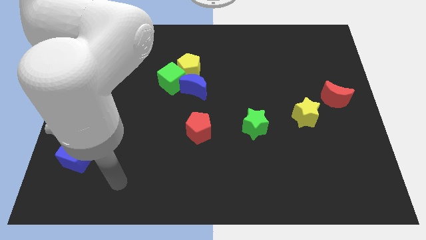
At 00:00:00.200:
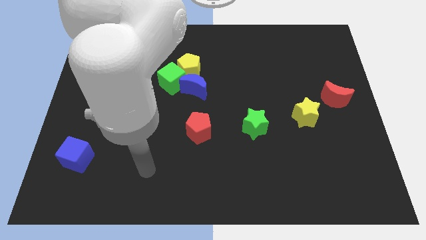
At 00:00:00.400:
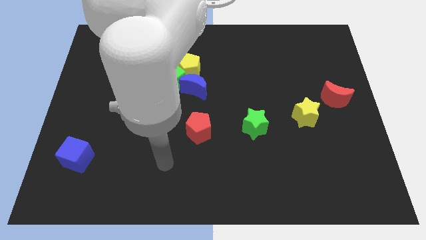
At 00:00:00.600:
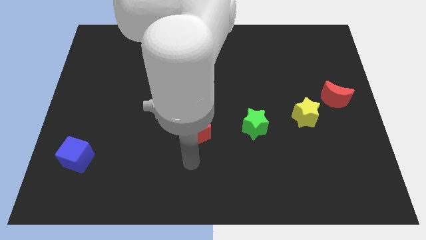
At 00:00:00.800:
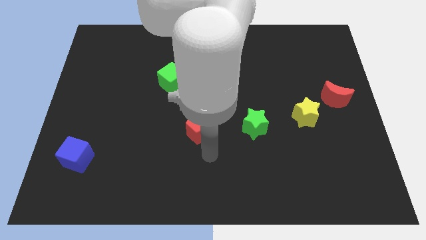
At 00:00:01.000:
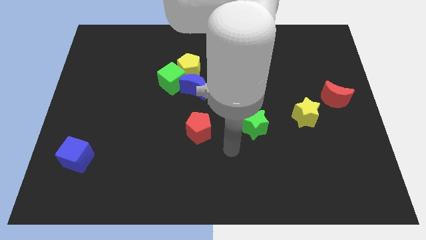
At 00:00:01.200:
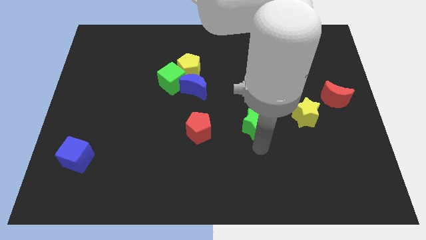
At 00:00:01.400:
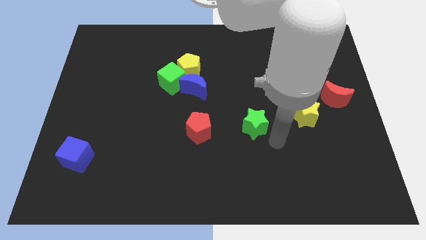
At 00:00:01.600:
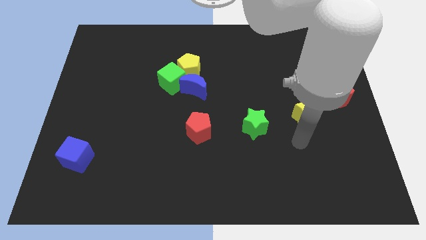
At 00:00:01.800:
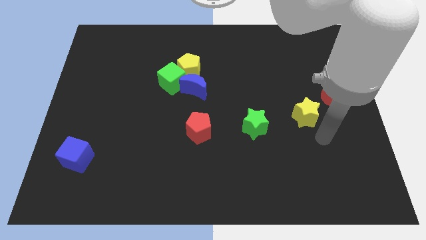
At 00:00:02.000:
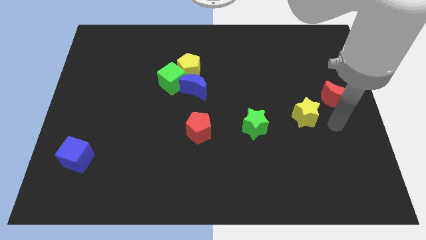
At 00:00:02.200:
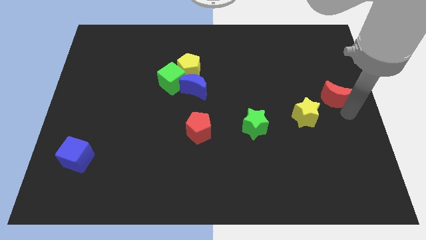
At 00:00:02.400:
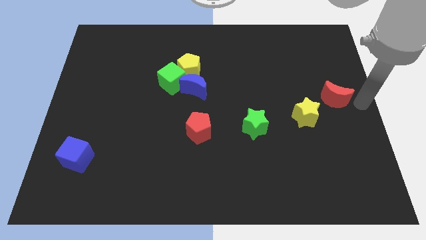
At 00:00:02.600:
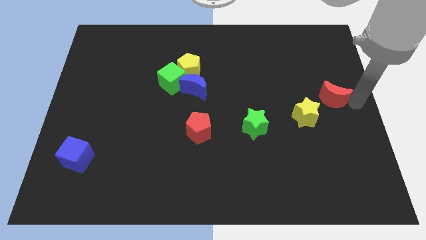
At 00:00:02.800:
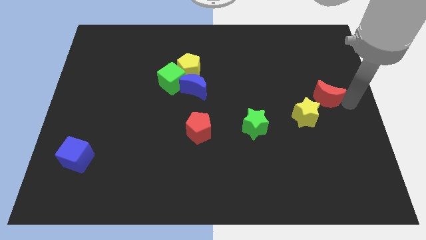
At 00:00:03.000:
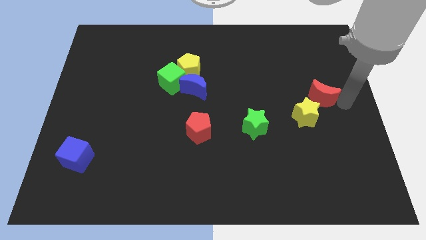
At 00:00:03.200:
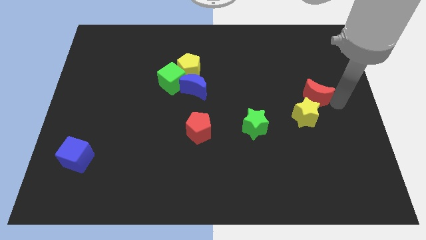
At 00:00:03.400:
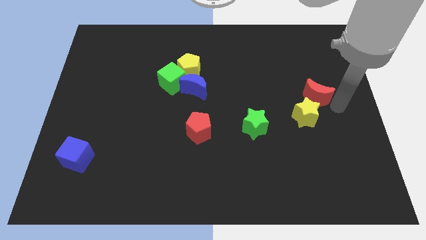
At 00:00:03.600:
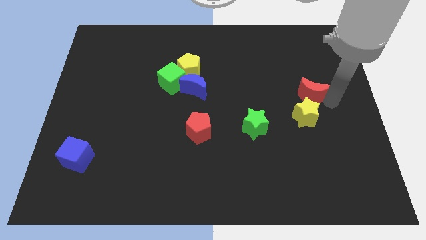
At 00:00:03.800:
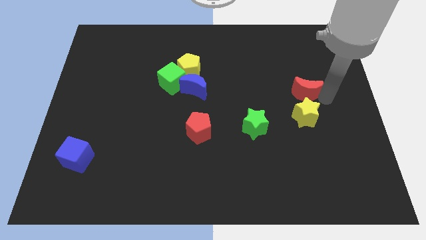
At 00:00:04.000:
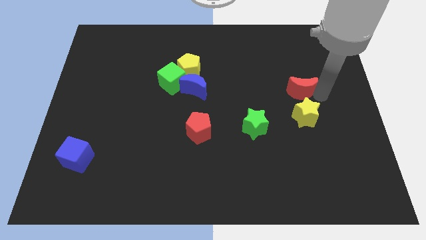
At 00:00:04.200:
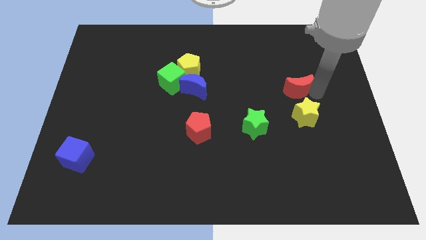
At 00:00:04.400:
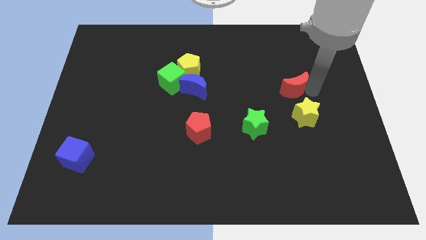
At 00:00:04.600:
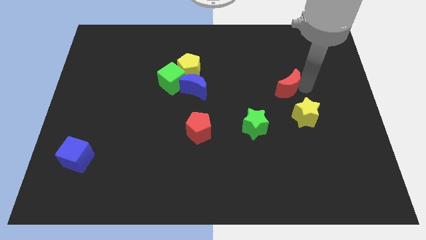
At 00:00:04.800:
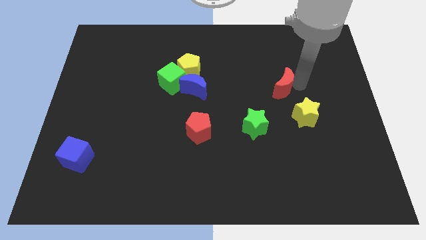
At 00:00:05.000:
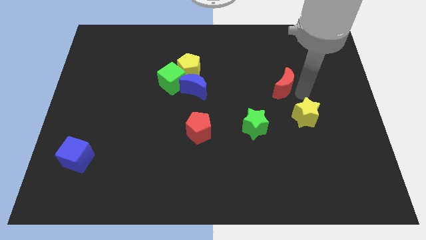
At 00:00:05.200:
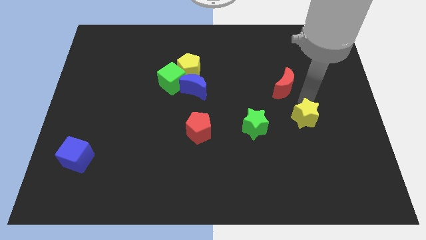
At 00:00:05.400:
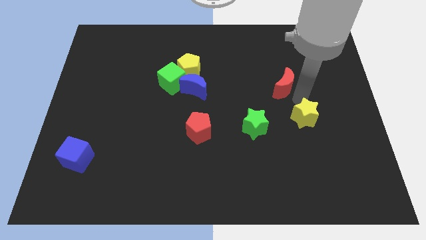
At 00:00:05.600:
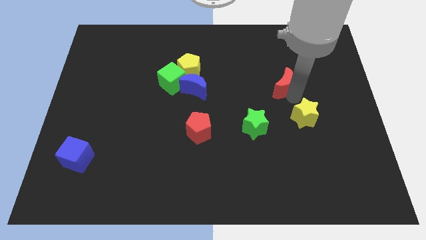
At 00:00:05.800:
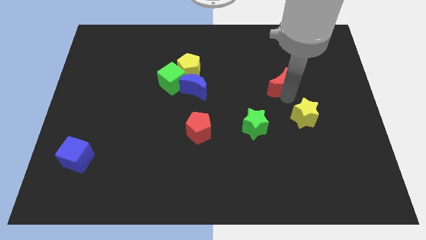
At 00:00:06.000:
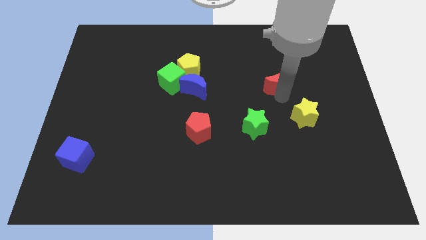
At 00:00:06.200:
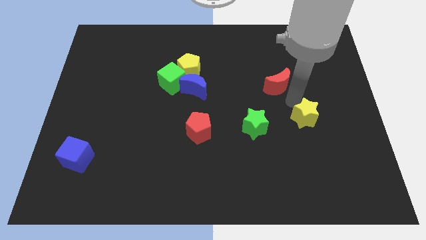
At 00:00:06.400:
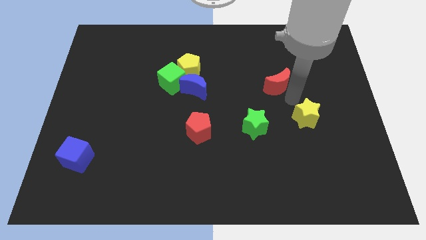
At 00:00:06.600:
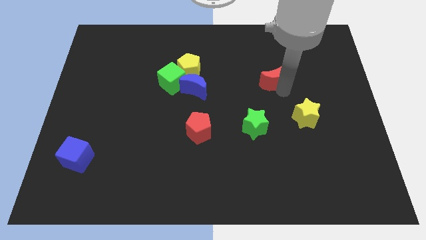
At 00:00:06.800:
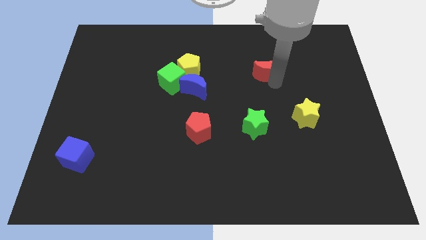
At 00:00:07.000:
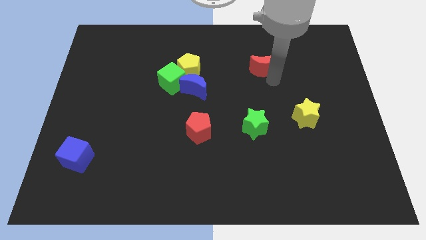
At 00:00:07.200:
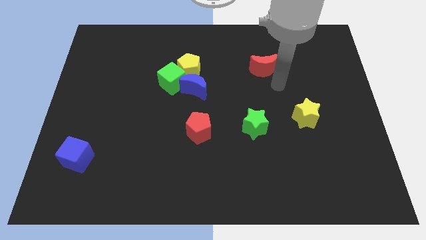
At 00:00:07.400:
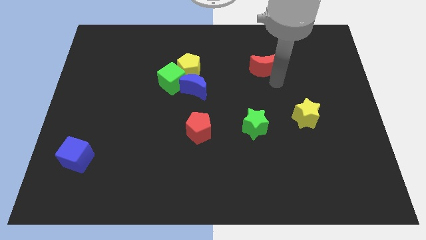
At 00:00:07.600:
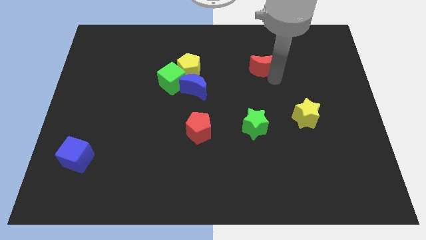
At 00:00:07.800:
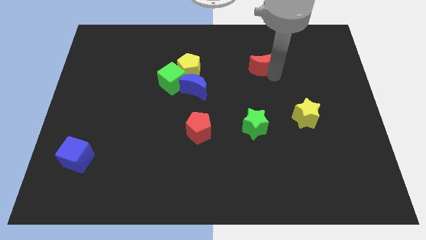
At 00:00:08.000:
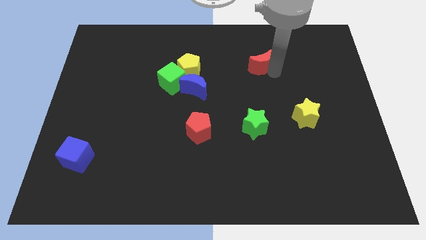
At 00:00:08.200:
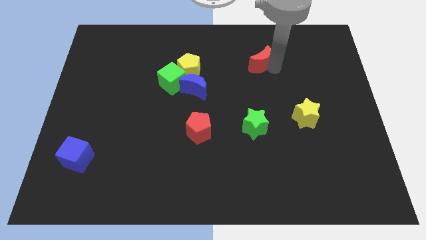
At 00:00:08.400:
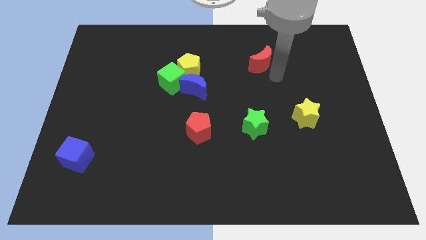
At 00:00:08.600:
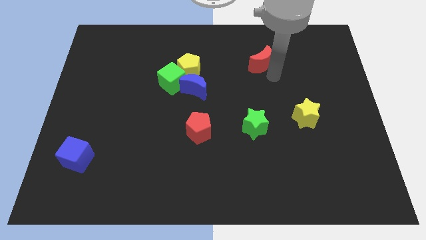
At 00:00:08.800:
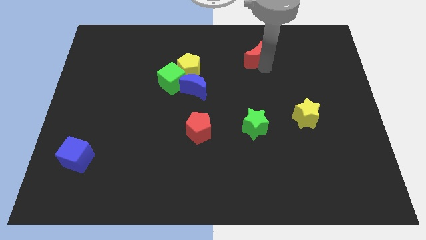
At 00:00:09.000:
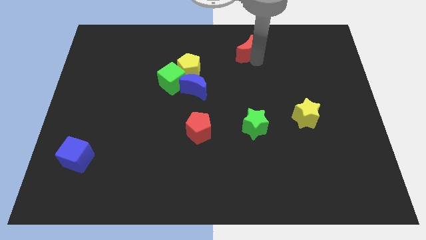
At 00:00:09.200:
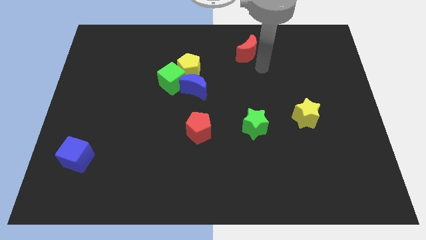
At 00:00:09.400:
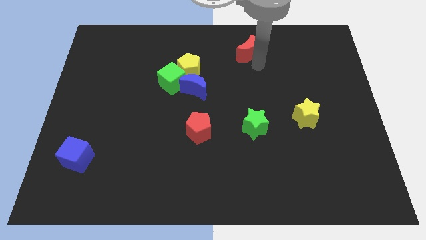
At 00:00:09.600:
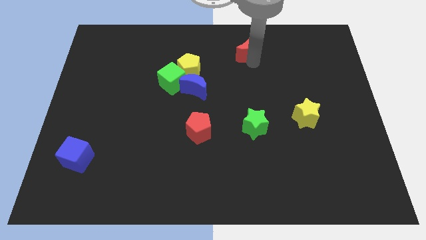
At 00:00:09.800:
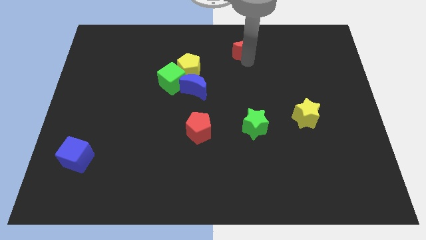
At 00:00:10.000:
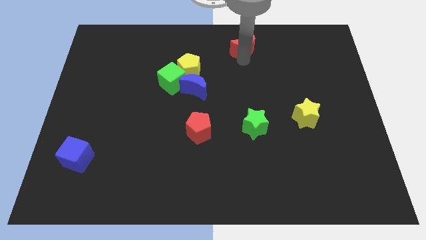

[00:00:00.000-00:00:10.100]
slide the red moon to the top

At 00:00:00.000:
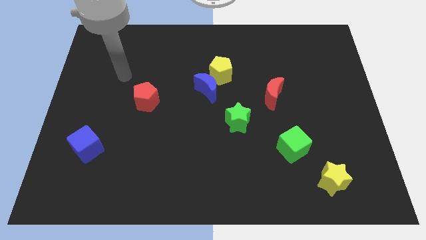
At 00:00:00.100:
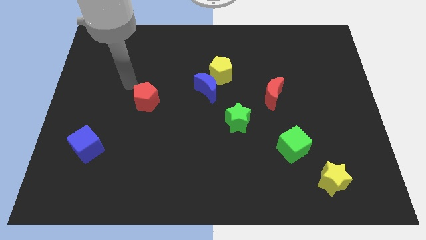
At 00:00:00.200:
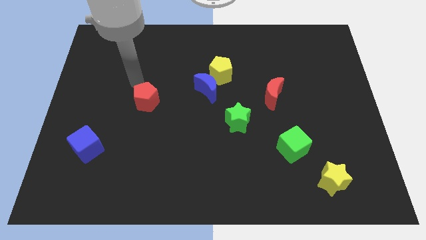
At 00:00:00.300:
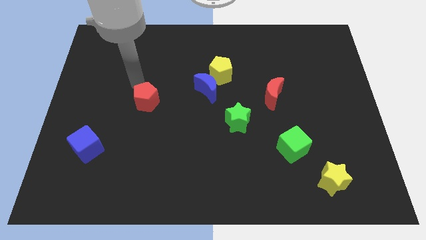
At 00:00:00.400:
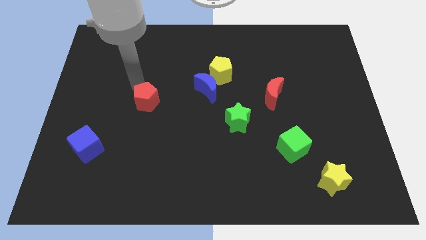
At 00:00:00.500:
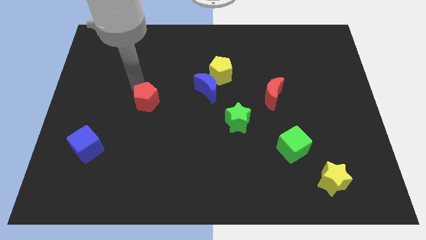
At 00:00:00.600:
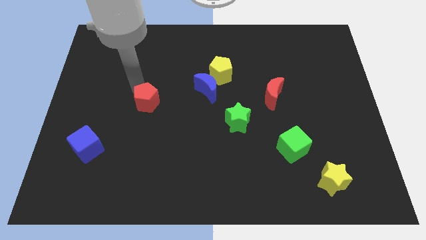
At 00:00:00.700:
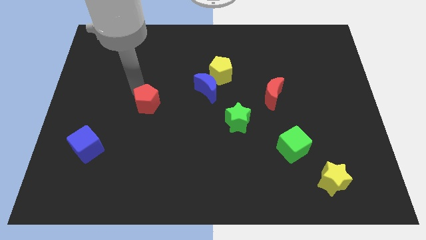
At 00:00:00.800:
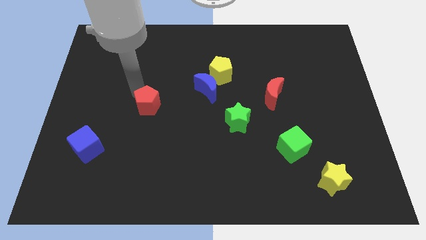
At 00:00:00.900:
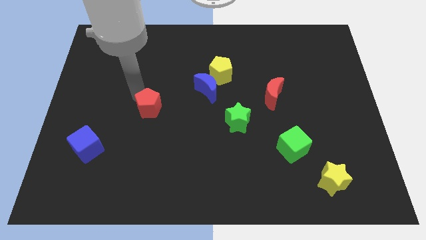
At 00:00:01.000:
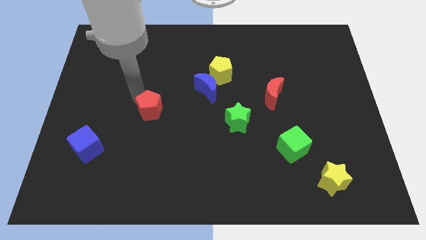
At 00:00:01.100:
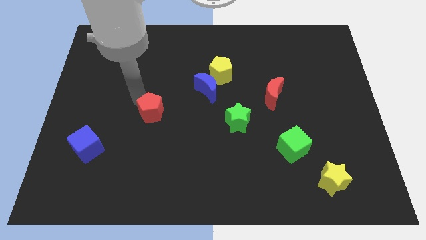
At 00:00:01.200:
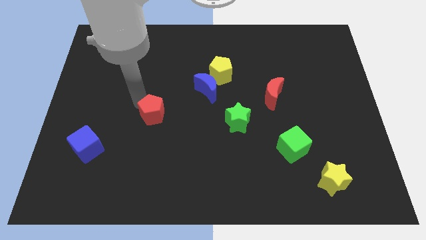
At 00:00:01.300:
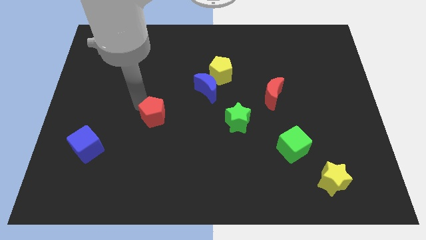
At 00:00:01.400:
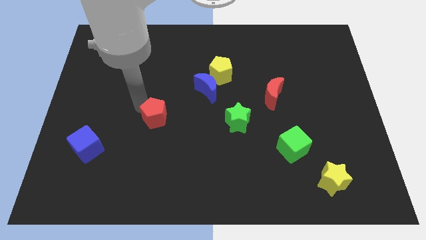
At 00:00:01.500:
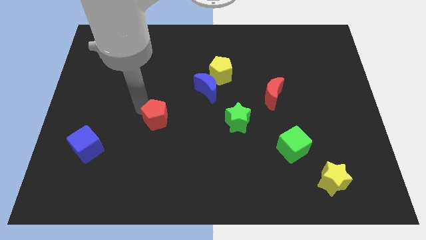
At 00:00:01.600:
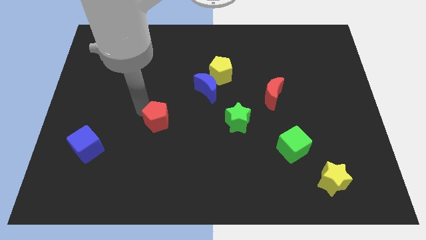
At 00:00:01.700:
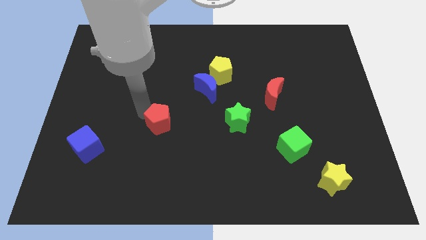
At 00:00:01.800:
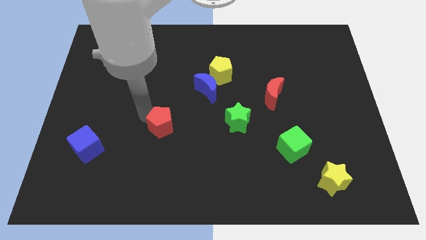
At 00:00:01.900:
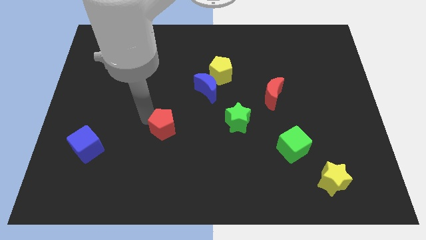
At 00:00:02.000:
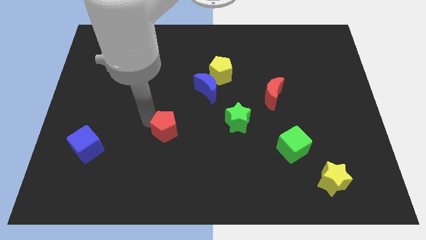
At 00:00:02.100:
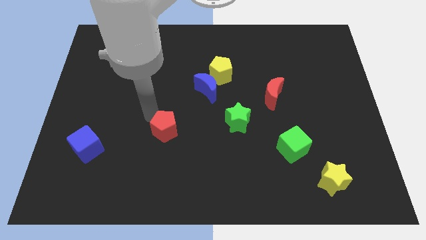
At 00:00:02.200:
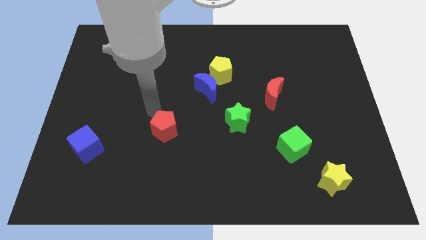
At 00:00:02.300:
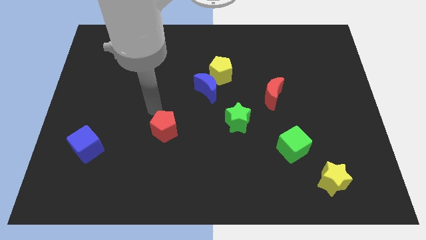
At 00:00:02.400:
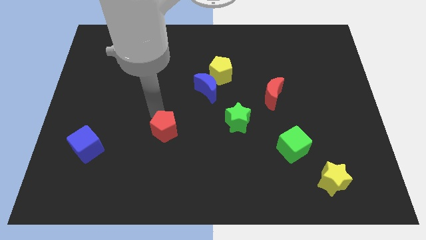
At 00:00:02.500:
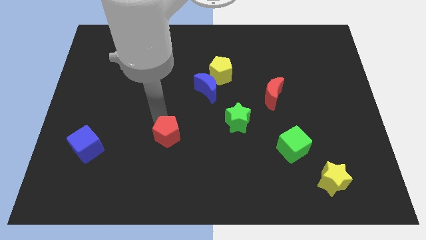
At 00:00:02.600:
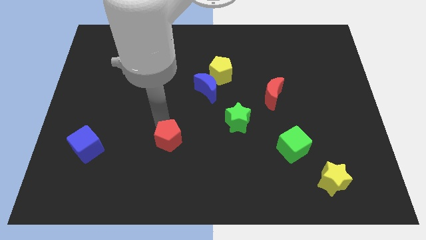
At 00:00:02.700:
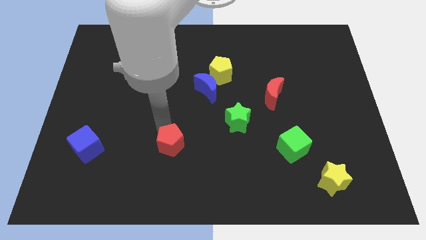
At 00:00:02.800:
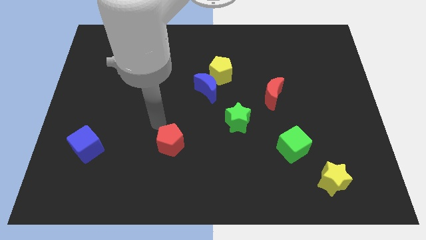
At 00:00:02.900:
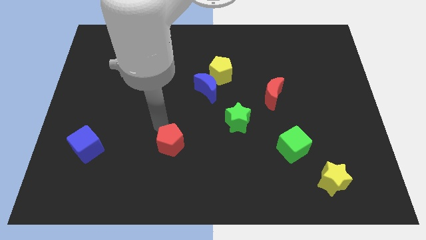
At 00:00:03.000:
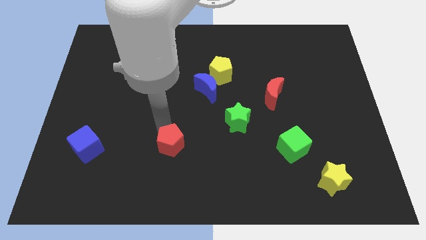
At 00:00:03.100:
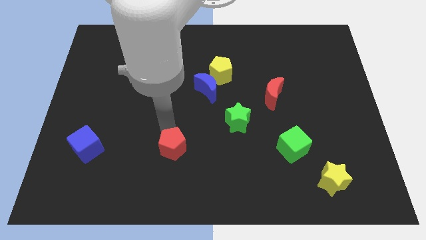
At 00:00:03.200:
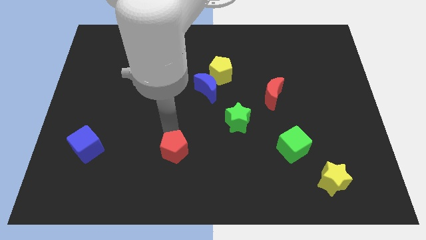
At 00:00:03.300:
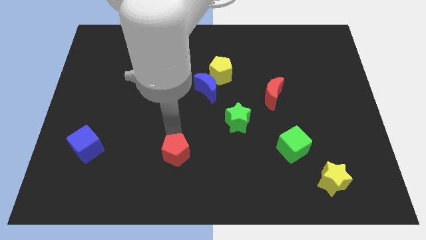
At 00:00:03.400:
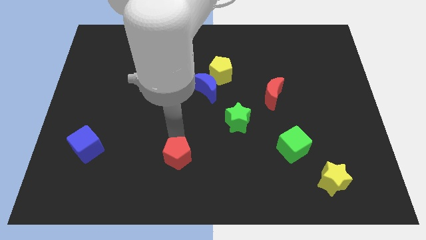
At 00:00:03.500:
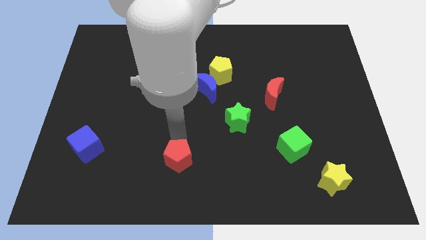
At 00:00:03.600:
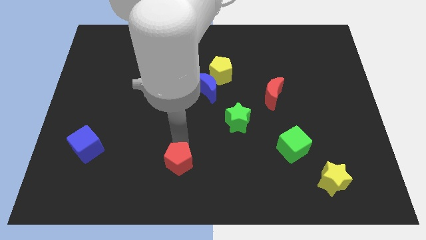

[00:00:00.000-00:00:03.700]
slide the red pentagon to the bottom side
